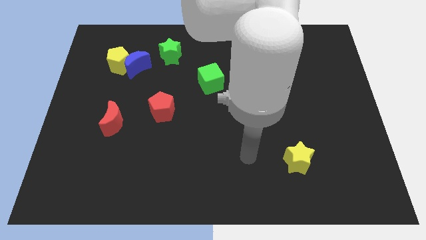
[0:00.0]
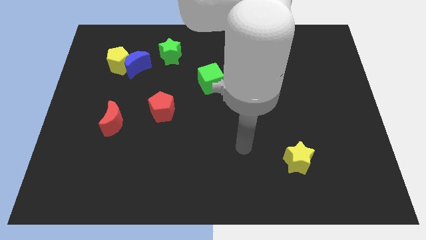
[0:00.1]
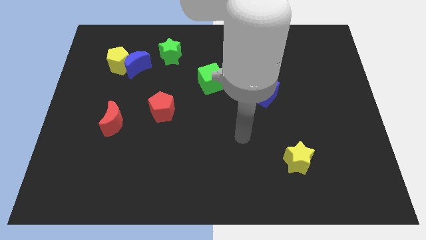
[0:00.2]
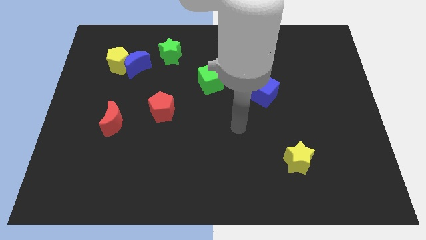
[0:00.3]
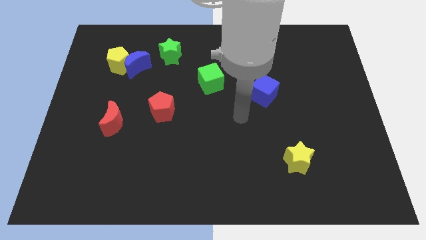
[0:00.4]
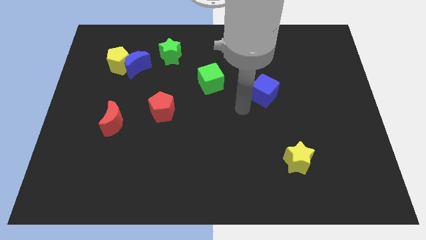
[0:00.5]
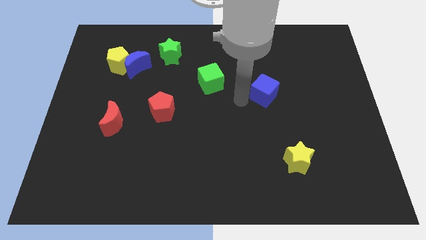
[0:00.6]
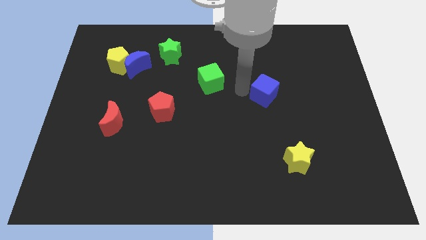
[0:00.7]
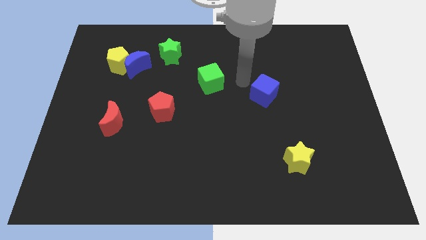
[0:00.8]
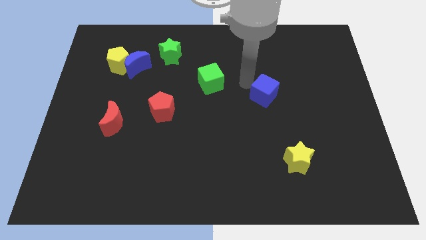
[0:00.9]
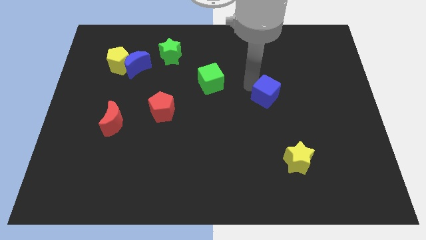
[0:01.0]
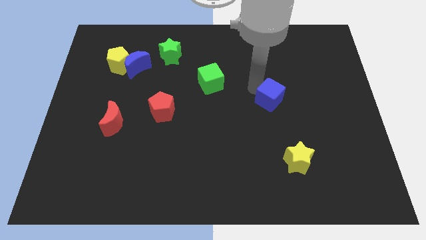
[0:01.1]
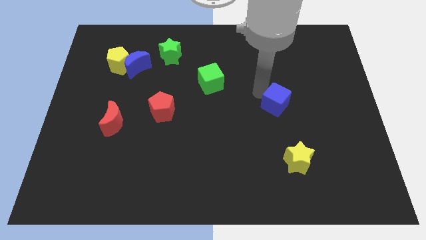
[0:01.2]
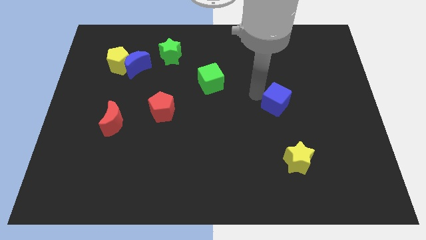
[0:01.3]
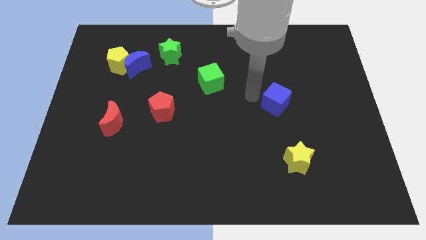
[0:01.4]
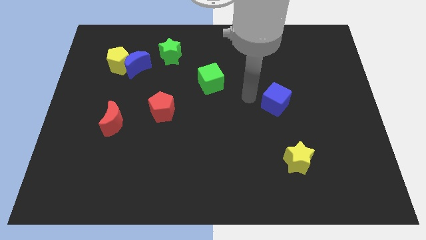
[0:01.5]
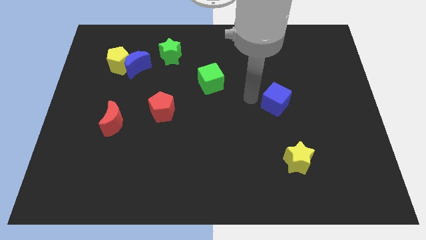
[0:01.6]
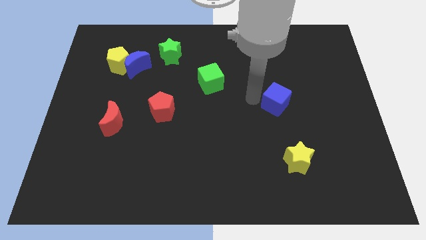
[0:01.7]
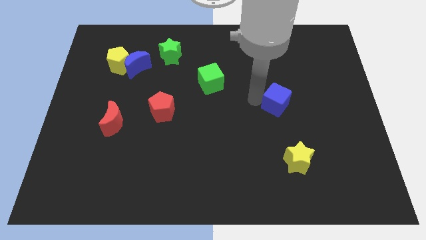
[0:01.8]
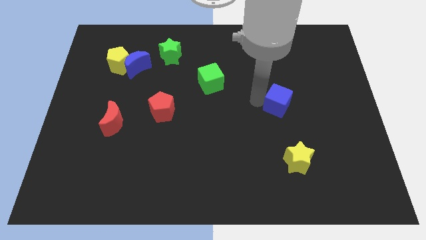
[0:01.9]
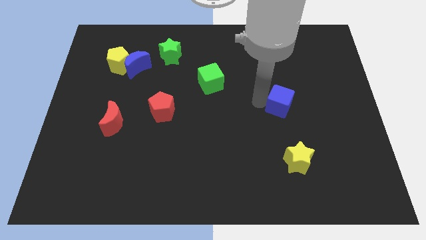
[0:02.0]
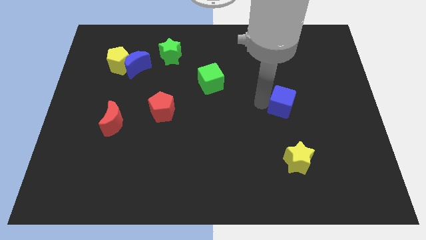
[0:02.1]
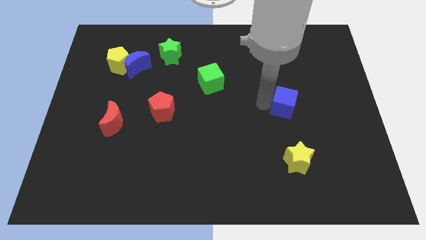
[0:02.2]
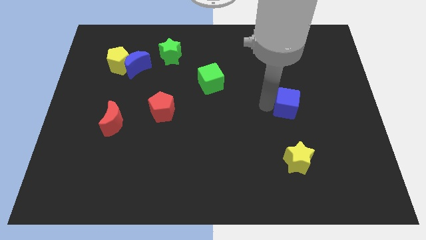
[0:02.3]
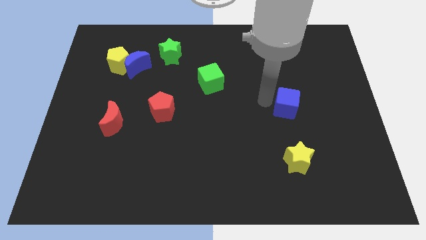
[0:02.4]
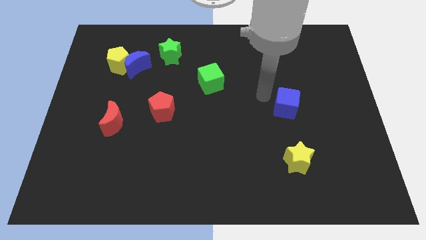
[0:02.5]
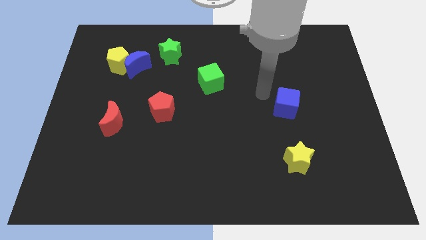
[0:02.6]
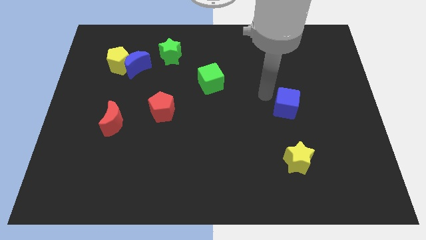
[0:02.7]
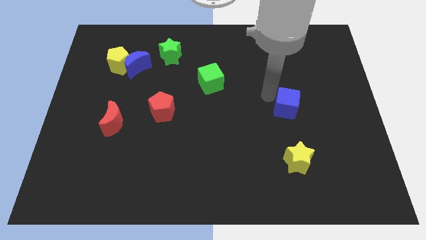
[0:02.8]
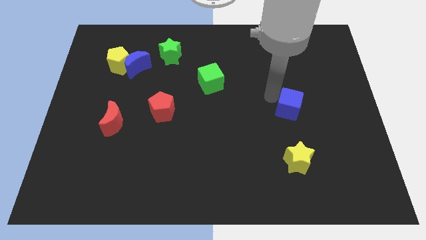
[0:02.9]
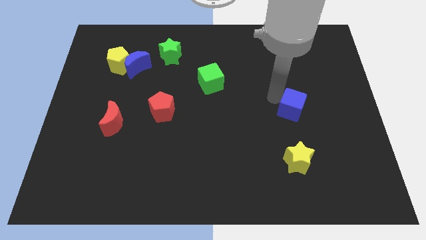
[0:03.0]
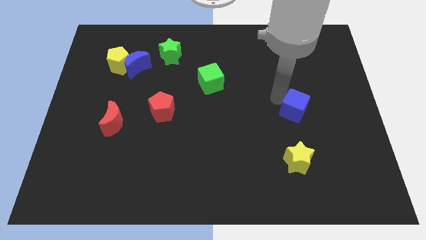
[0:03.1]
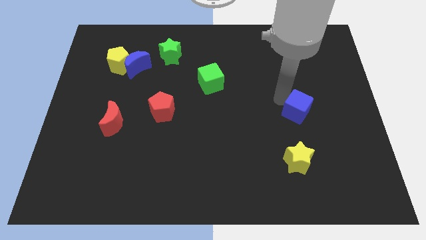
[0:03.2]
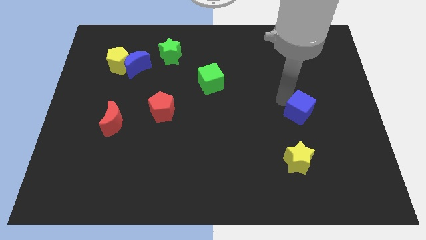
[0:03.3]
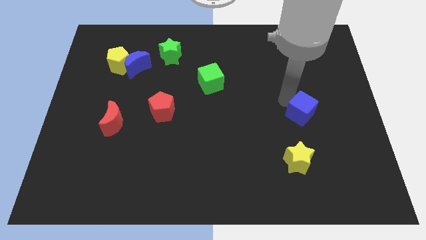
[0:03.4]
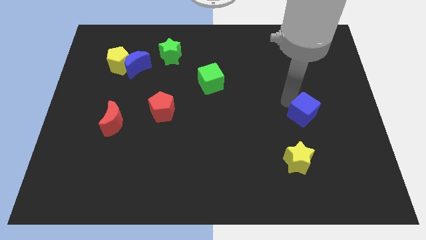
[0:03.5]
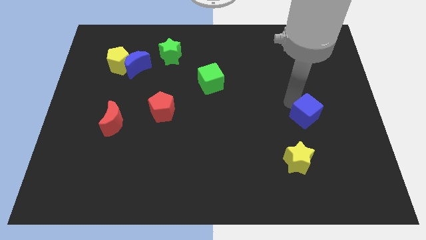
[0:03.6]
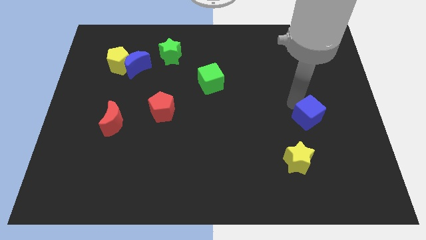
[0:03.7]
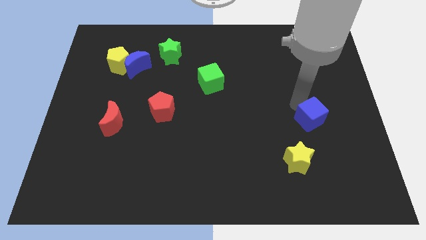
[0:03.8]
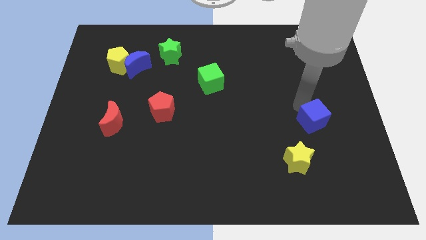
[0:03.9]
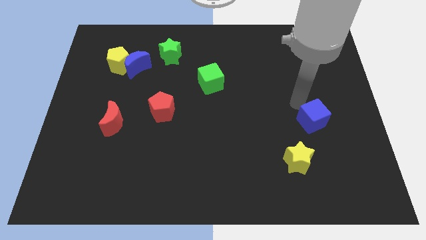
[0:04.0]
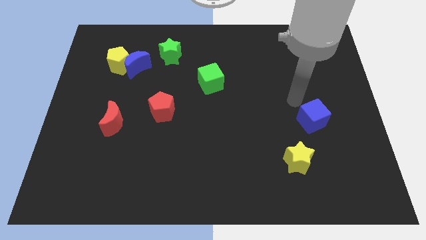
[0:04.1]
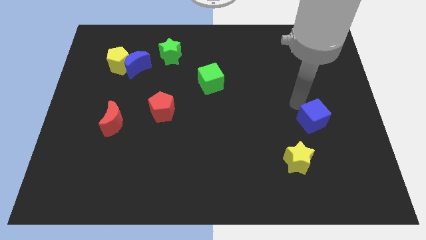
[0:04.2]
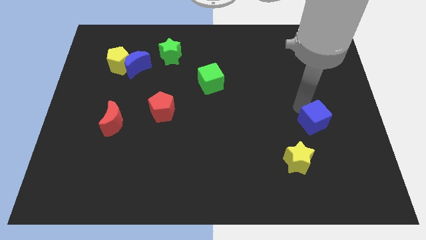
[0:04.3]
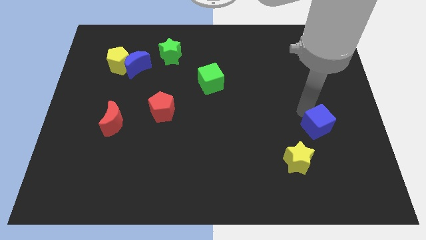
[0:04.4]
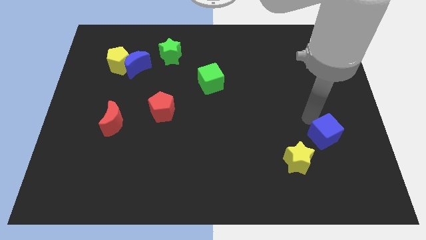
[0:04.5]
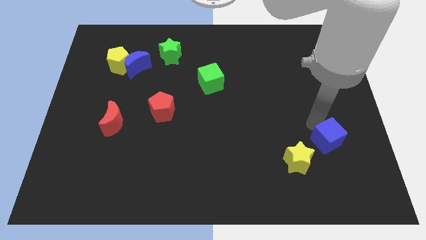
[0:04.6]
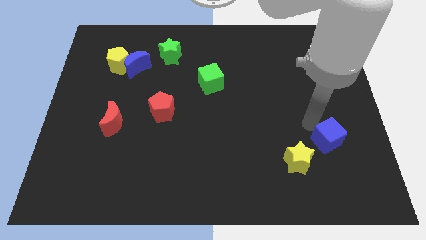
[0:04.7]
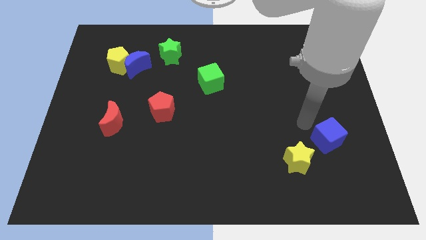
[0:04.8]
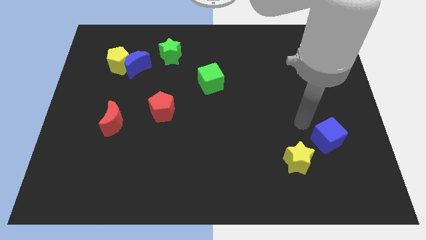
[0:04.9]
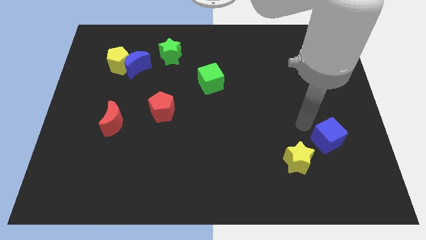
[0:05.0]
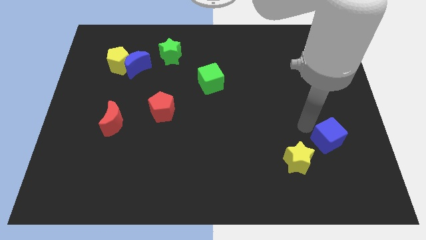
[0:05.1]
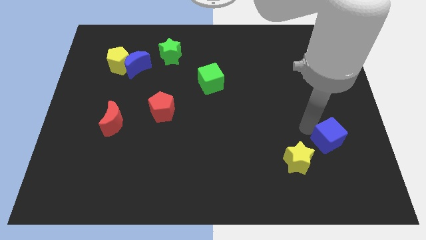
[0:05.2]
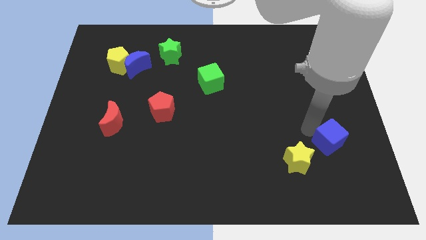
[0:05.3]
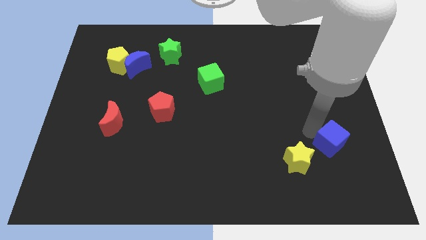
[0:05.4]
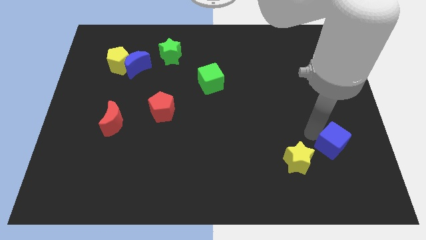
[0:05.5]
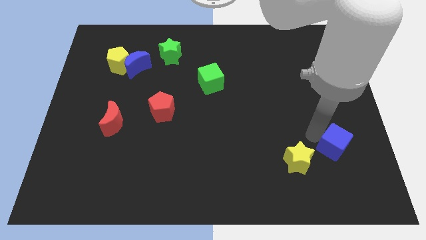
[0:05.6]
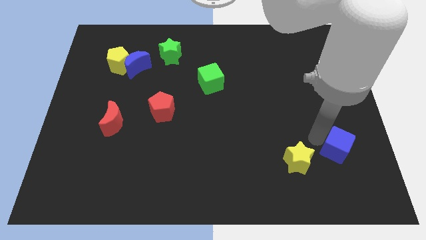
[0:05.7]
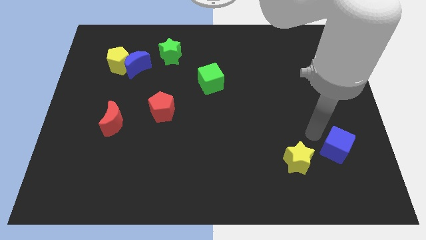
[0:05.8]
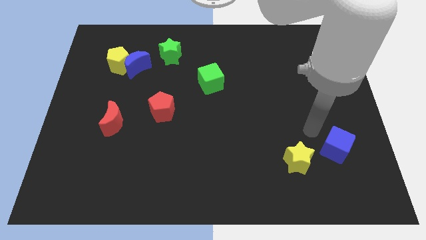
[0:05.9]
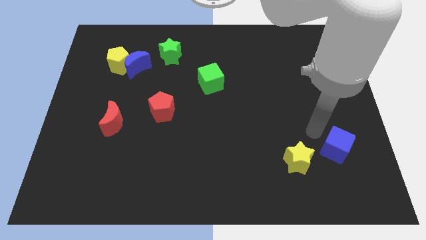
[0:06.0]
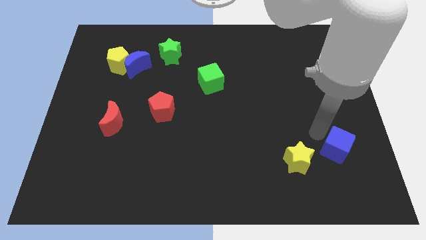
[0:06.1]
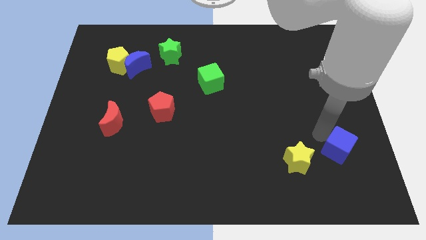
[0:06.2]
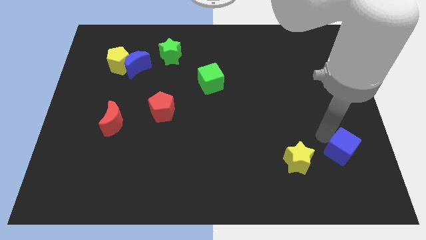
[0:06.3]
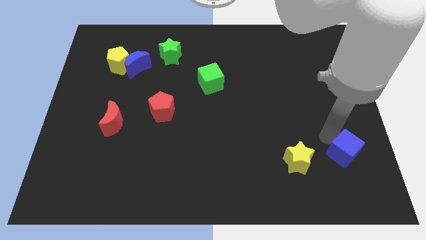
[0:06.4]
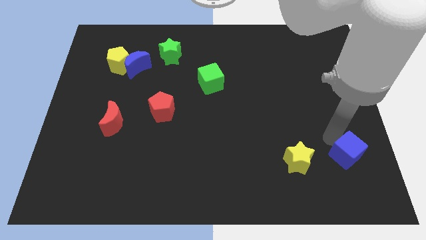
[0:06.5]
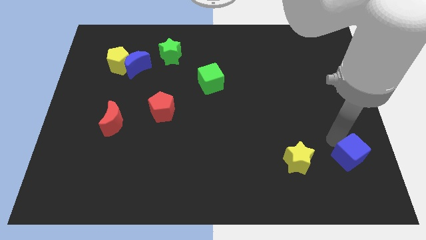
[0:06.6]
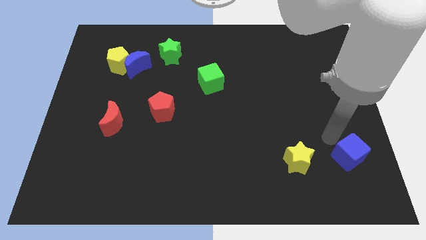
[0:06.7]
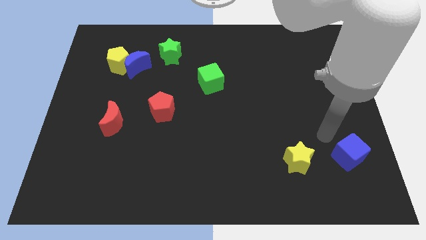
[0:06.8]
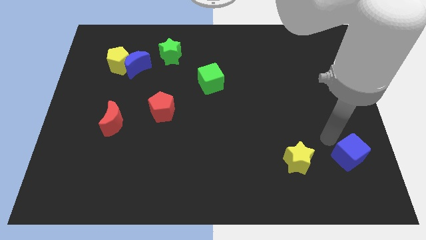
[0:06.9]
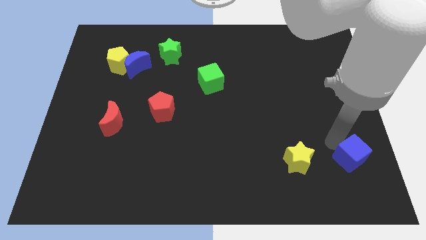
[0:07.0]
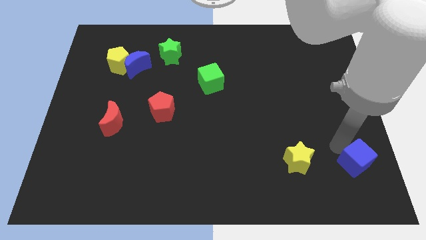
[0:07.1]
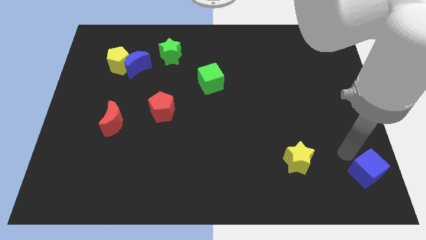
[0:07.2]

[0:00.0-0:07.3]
move the blue cube to the bottom right of the board
